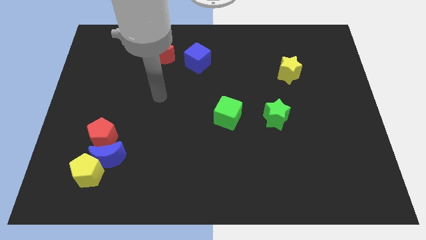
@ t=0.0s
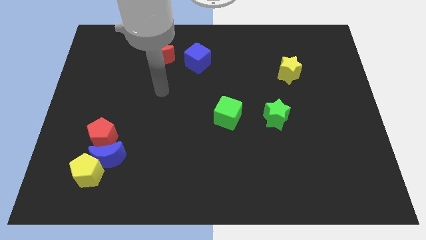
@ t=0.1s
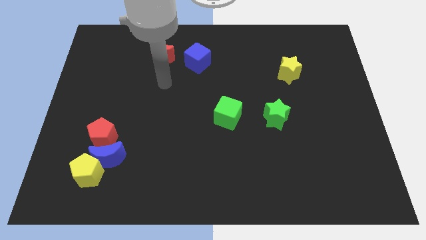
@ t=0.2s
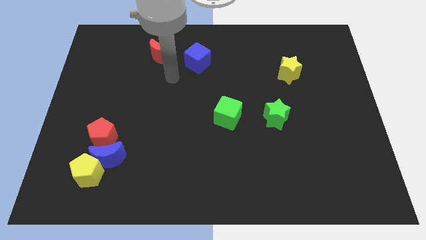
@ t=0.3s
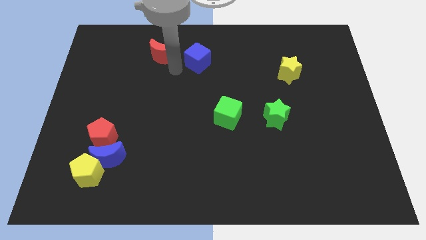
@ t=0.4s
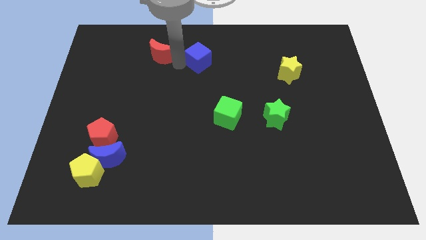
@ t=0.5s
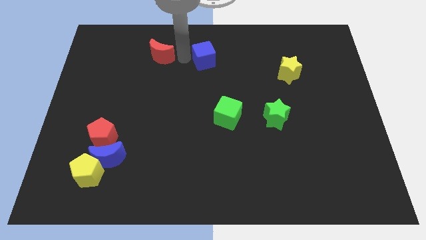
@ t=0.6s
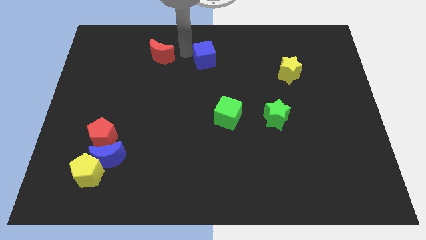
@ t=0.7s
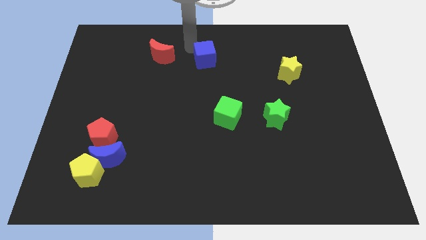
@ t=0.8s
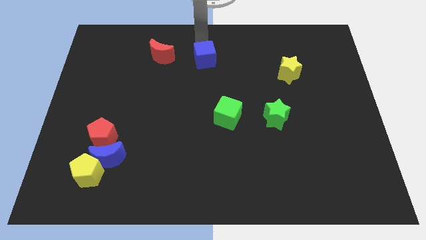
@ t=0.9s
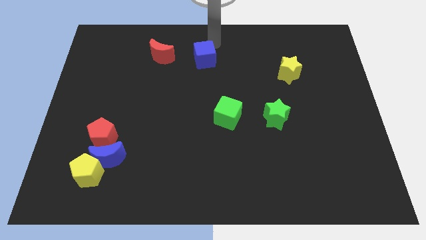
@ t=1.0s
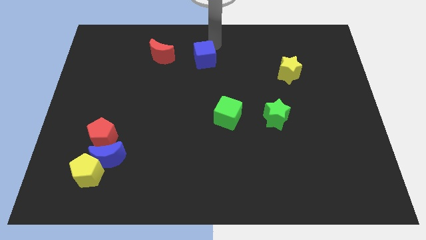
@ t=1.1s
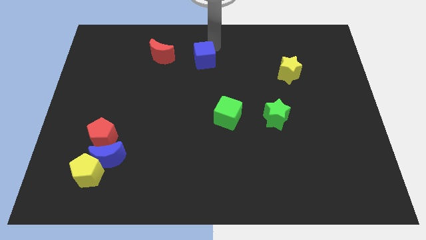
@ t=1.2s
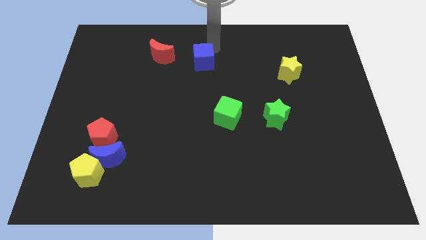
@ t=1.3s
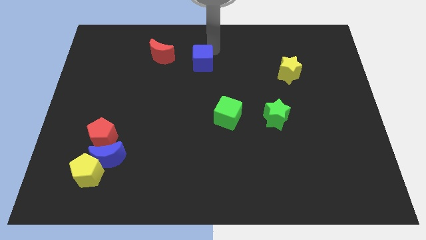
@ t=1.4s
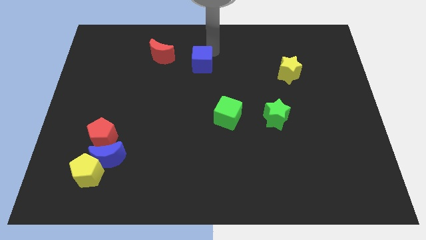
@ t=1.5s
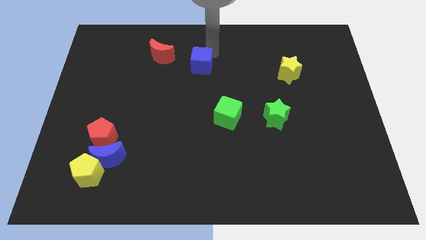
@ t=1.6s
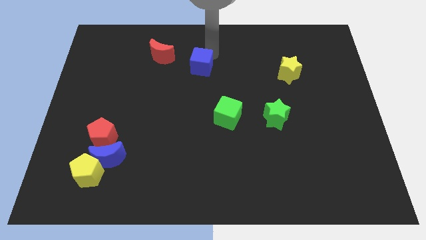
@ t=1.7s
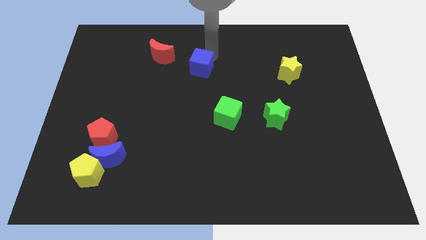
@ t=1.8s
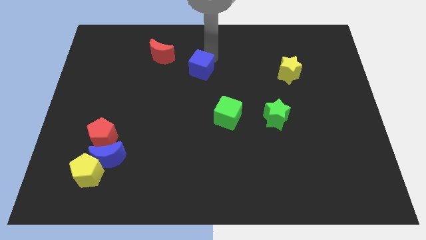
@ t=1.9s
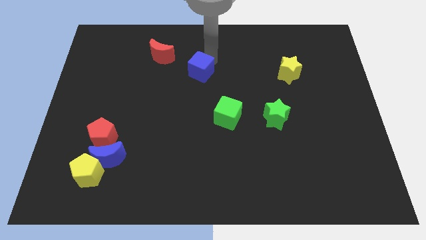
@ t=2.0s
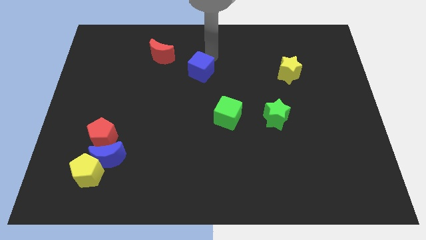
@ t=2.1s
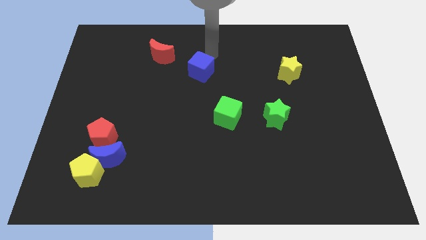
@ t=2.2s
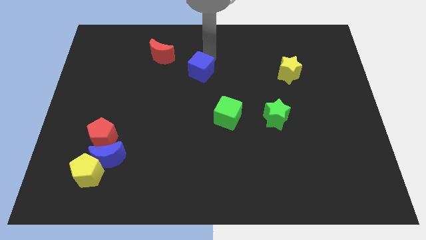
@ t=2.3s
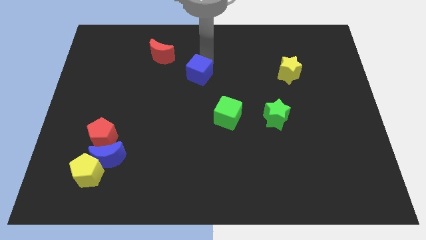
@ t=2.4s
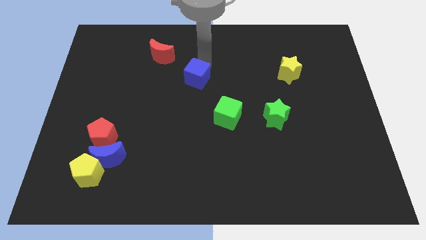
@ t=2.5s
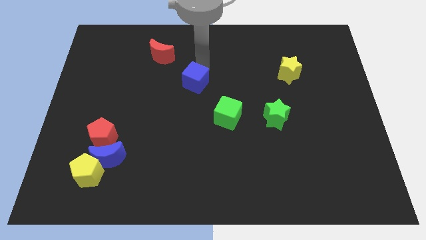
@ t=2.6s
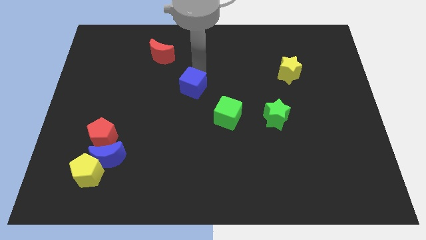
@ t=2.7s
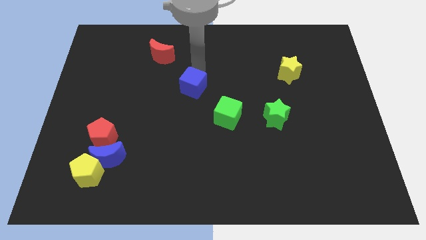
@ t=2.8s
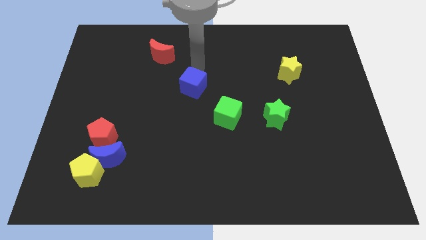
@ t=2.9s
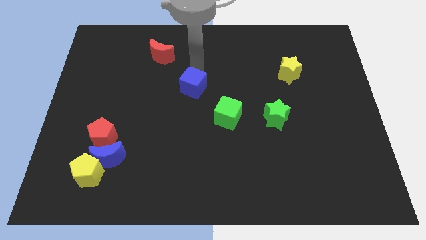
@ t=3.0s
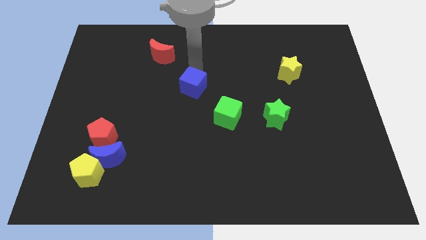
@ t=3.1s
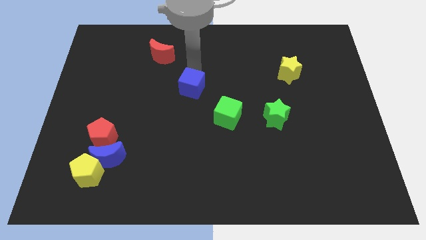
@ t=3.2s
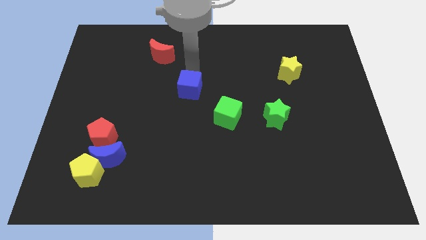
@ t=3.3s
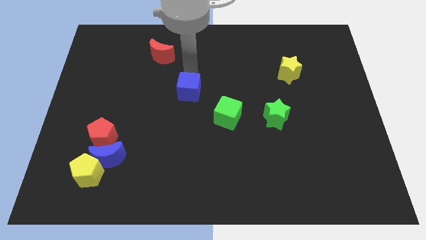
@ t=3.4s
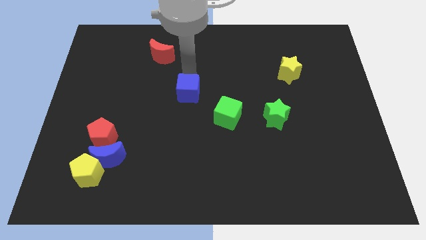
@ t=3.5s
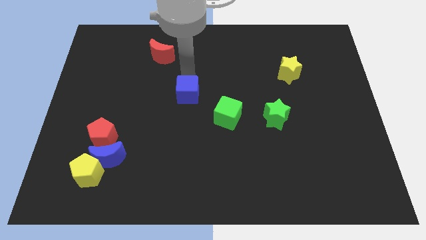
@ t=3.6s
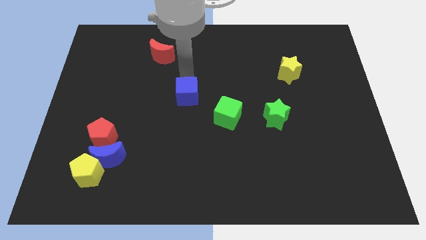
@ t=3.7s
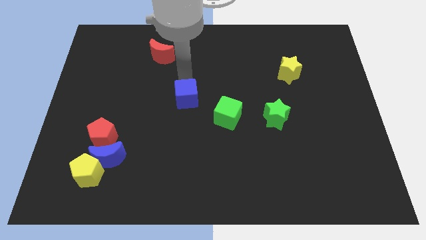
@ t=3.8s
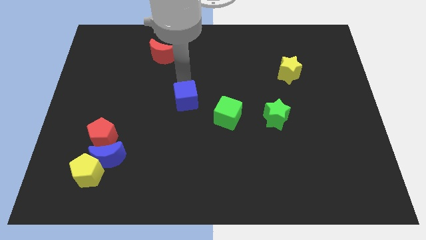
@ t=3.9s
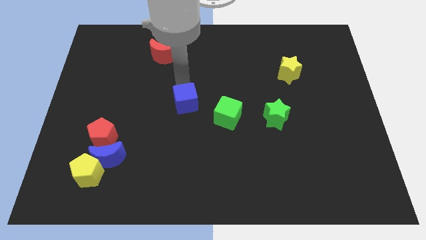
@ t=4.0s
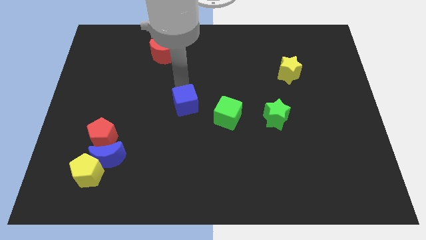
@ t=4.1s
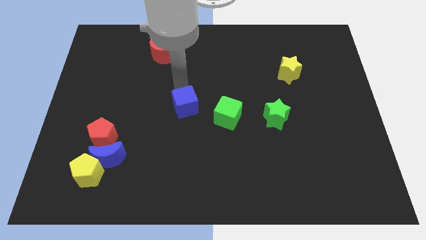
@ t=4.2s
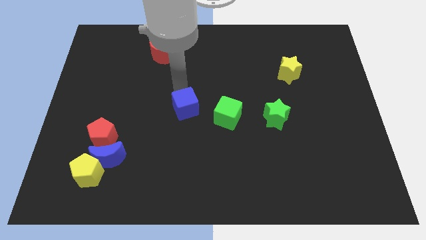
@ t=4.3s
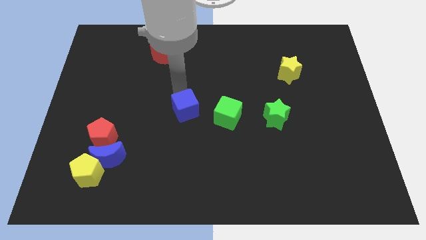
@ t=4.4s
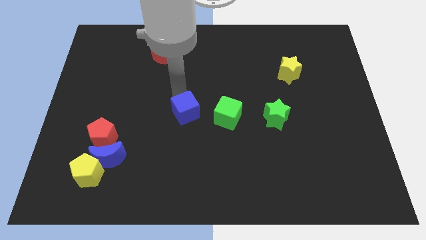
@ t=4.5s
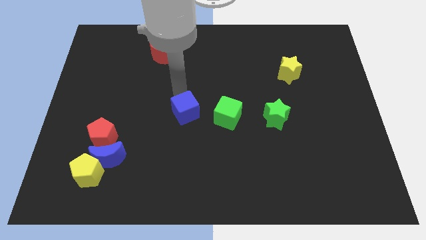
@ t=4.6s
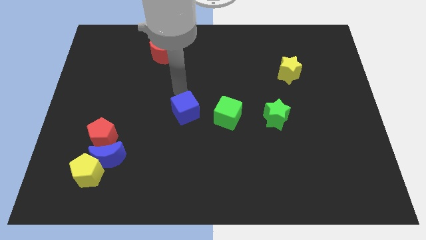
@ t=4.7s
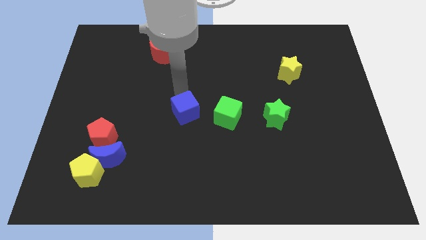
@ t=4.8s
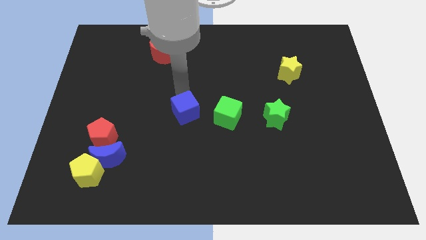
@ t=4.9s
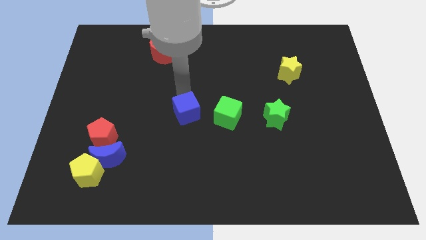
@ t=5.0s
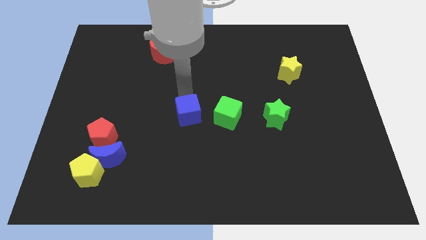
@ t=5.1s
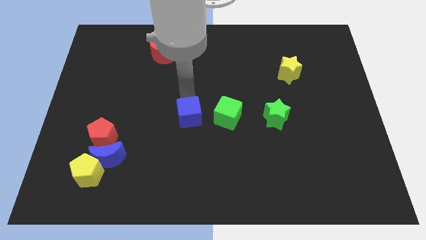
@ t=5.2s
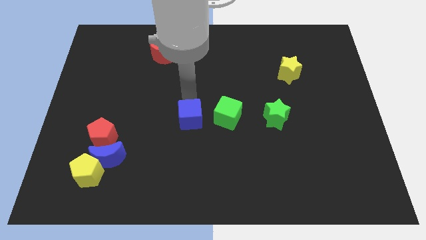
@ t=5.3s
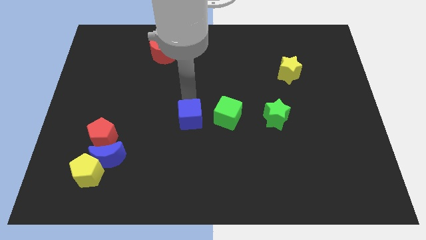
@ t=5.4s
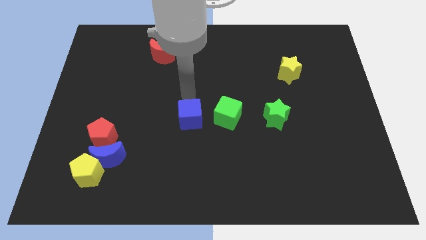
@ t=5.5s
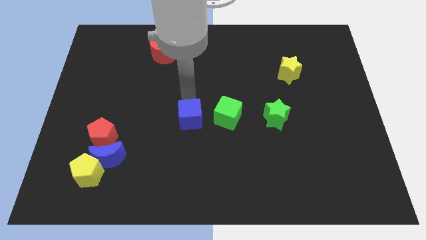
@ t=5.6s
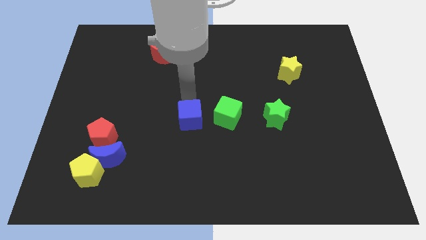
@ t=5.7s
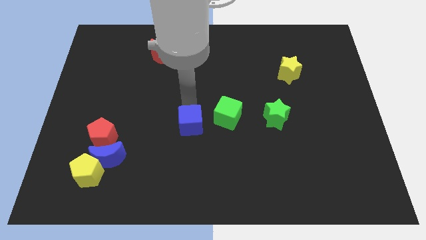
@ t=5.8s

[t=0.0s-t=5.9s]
move the blue cube downwards

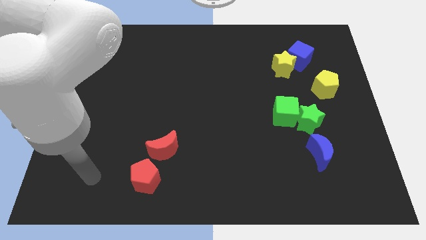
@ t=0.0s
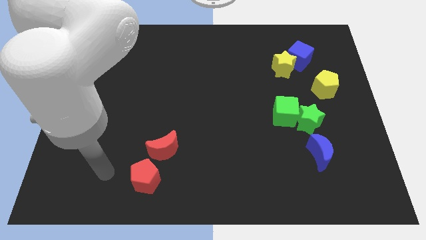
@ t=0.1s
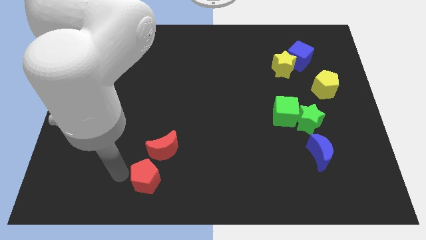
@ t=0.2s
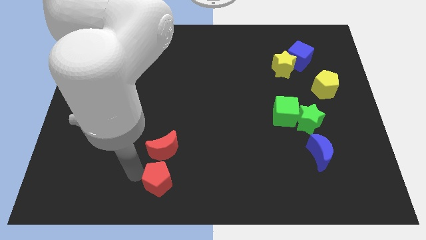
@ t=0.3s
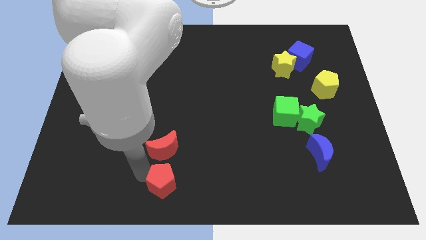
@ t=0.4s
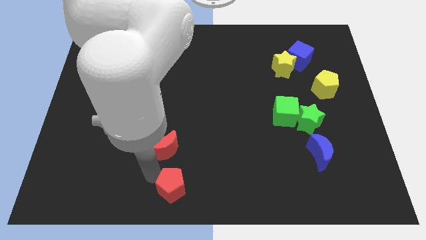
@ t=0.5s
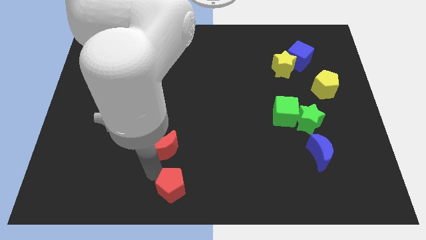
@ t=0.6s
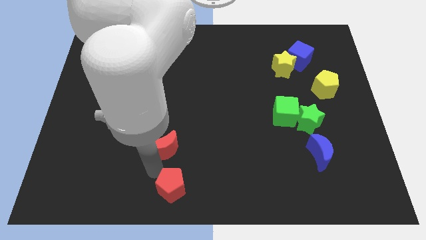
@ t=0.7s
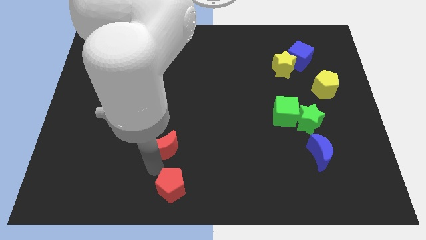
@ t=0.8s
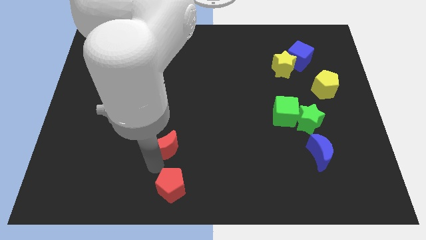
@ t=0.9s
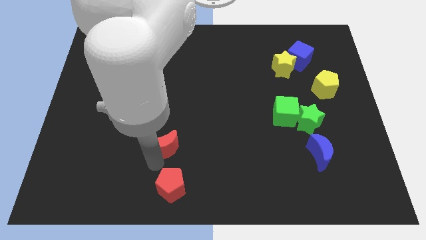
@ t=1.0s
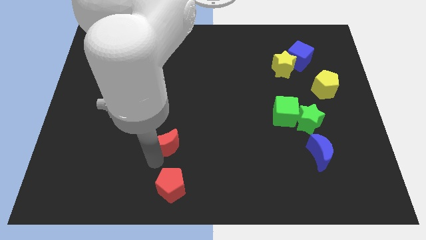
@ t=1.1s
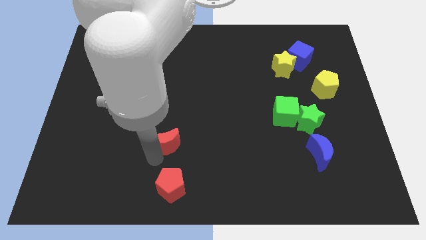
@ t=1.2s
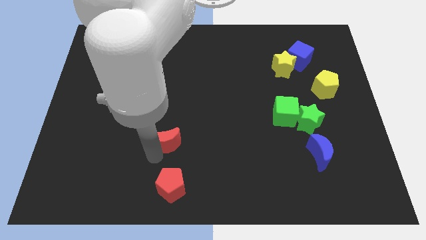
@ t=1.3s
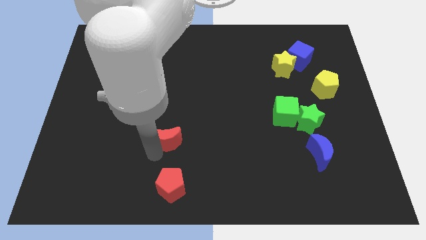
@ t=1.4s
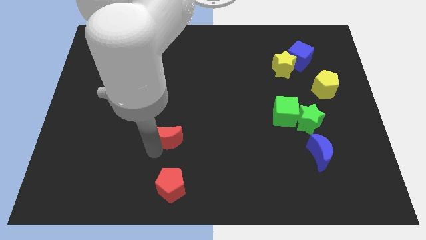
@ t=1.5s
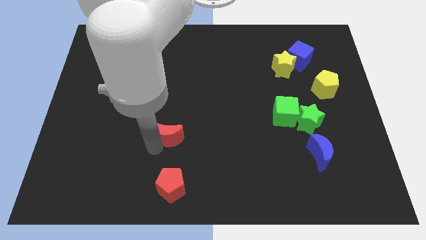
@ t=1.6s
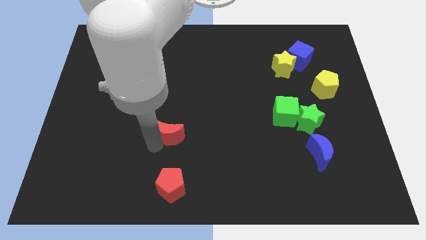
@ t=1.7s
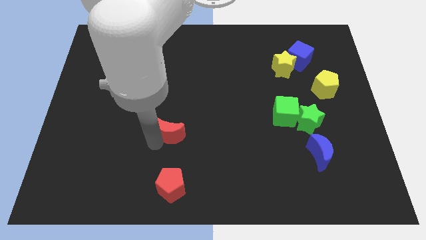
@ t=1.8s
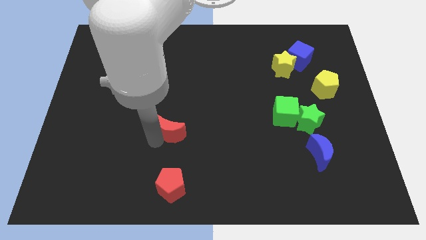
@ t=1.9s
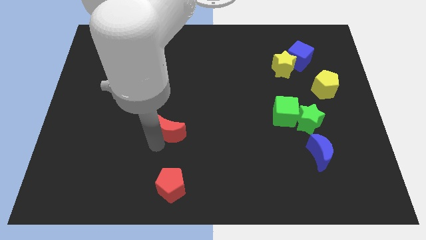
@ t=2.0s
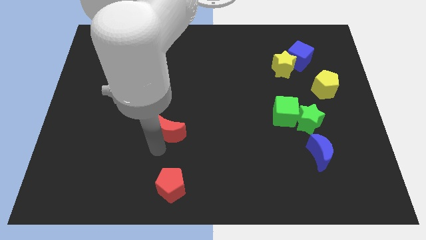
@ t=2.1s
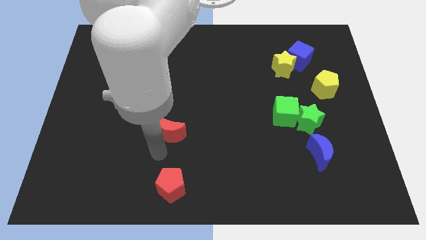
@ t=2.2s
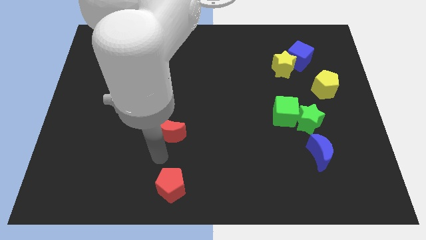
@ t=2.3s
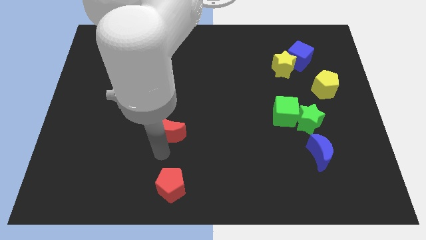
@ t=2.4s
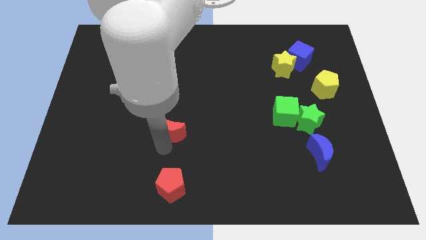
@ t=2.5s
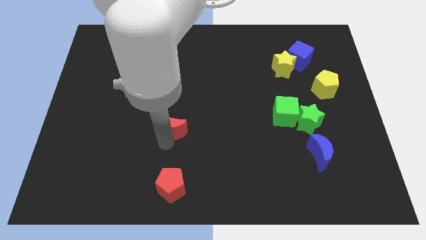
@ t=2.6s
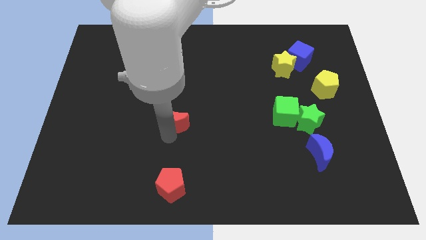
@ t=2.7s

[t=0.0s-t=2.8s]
slightly move the red moon upwards
